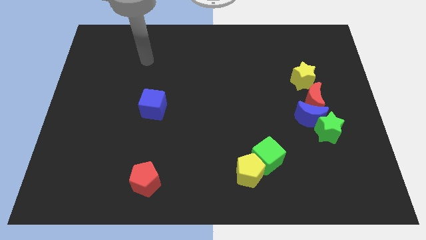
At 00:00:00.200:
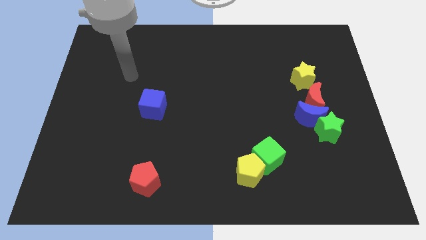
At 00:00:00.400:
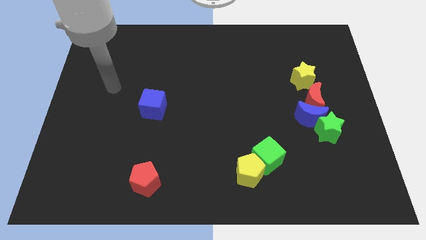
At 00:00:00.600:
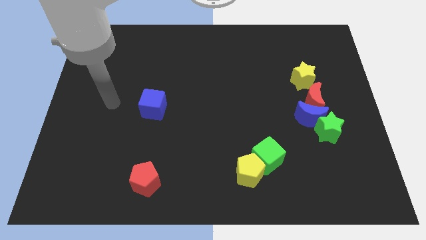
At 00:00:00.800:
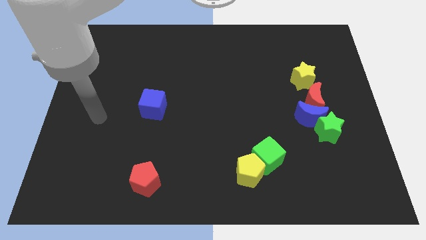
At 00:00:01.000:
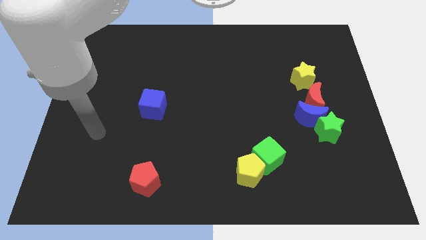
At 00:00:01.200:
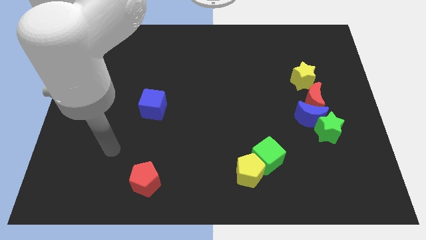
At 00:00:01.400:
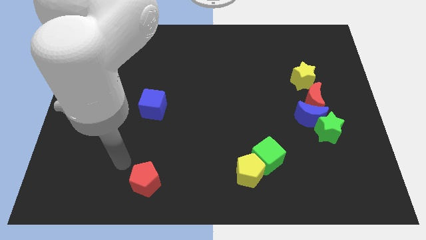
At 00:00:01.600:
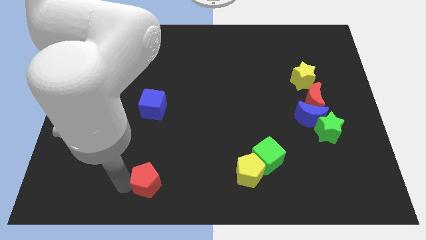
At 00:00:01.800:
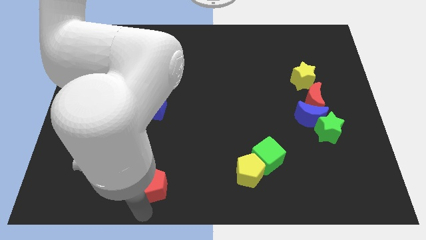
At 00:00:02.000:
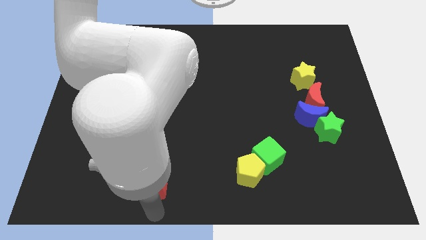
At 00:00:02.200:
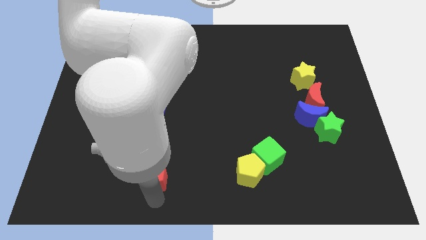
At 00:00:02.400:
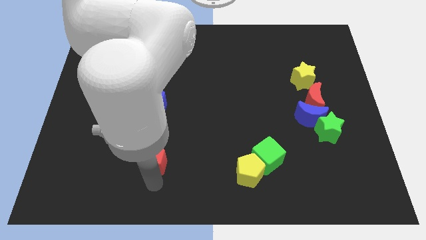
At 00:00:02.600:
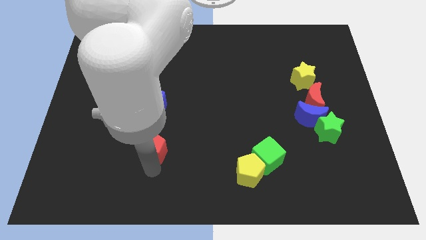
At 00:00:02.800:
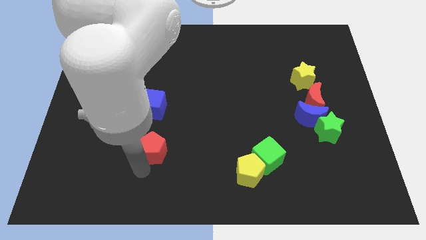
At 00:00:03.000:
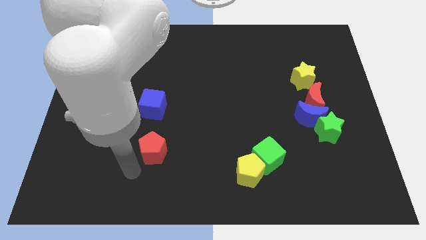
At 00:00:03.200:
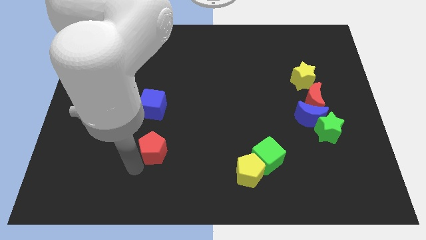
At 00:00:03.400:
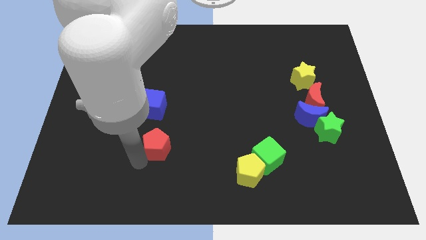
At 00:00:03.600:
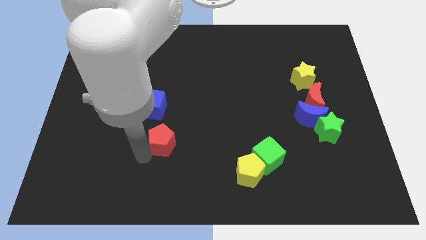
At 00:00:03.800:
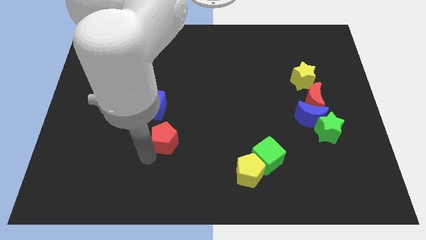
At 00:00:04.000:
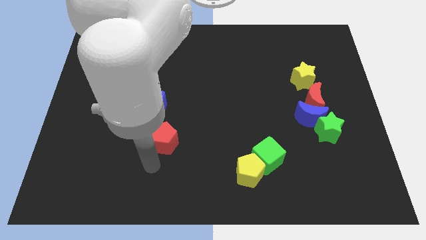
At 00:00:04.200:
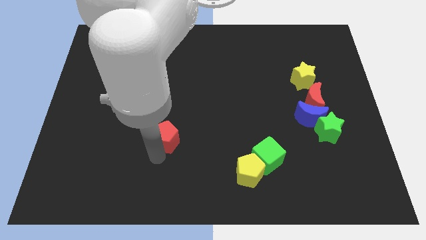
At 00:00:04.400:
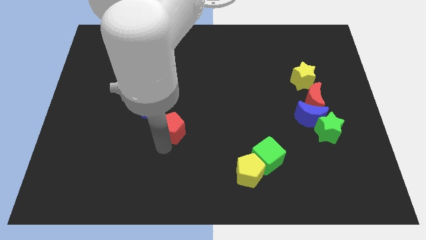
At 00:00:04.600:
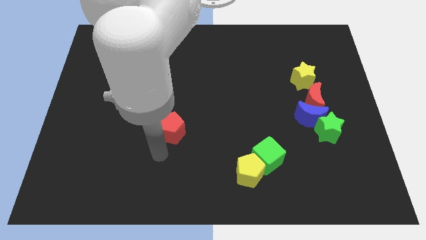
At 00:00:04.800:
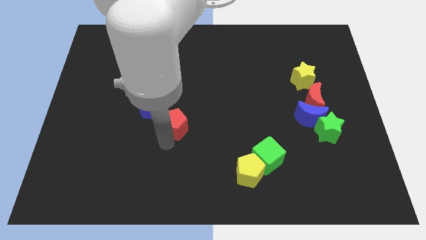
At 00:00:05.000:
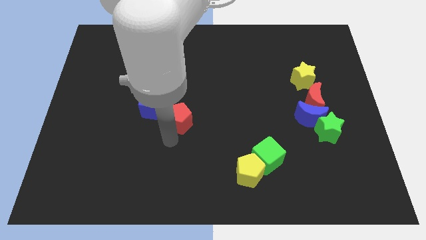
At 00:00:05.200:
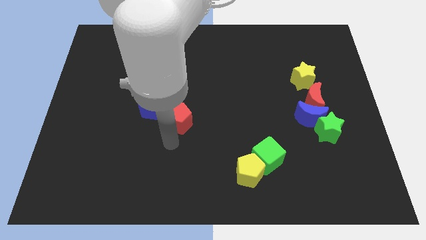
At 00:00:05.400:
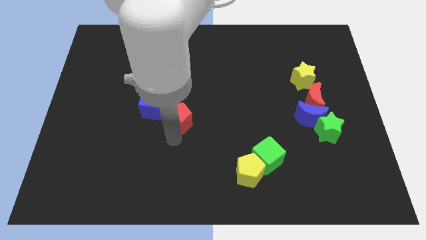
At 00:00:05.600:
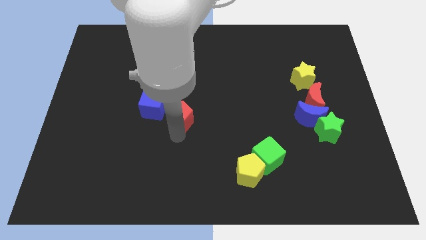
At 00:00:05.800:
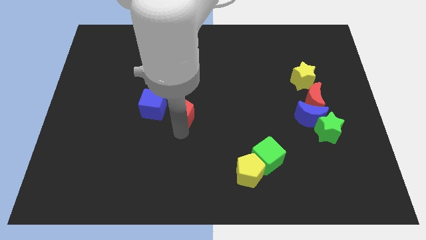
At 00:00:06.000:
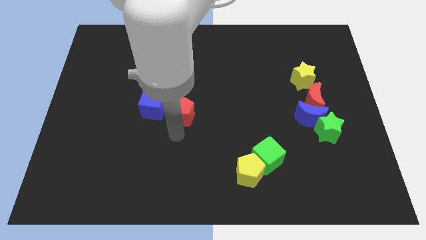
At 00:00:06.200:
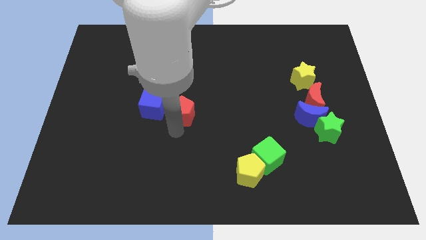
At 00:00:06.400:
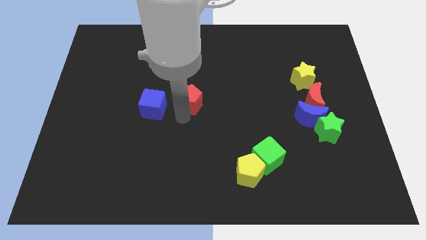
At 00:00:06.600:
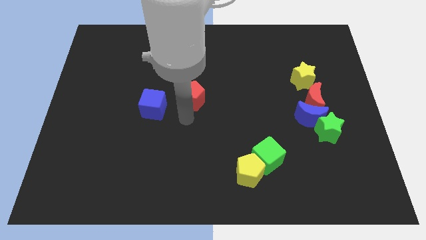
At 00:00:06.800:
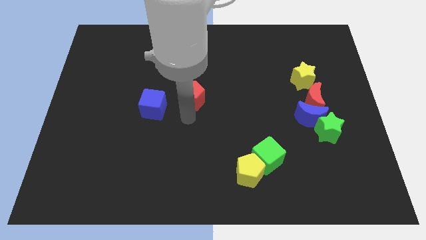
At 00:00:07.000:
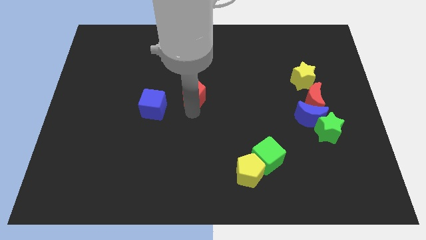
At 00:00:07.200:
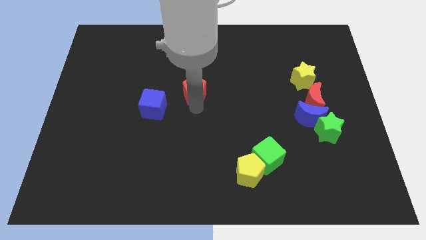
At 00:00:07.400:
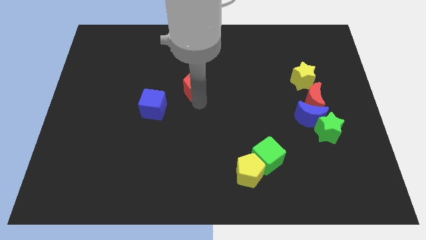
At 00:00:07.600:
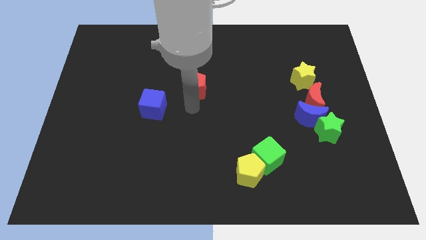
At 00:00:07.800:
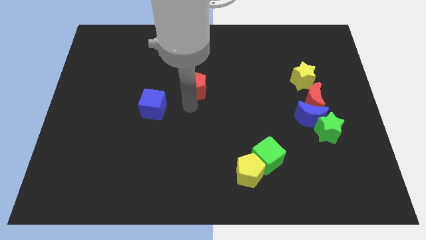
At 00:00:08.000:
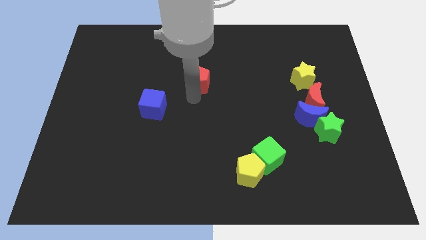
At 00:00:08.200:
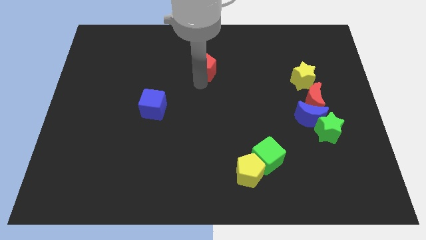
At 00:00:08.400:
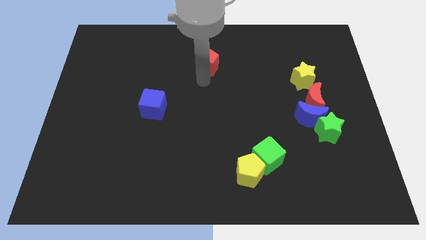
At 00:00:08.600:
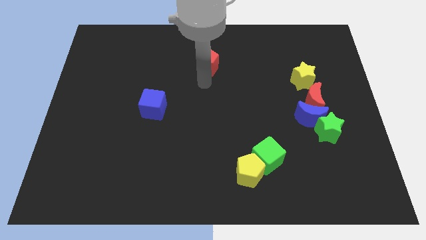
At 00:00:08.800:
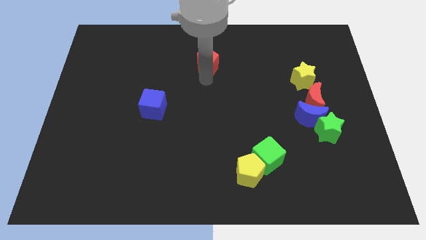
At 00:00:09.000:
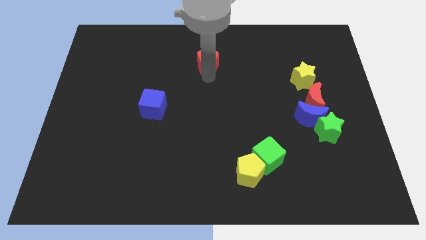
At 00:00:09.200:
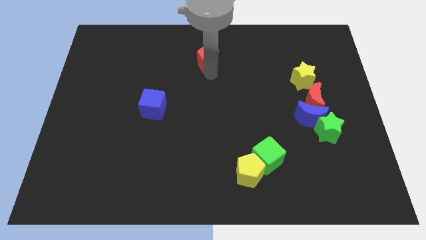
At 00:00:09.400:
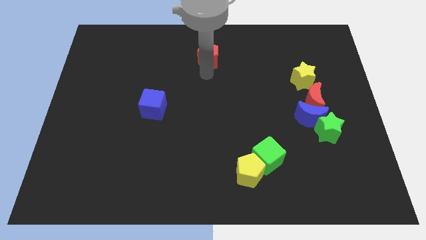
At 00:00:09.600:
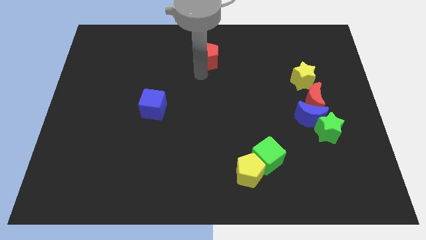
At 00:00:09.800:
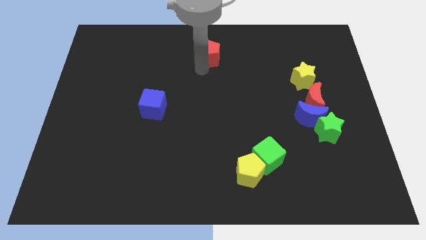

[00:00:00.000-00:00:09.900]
push the red pentagon to the towards your base

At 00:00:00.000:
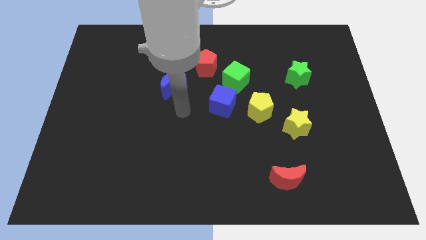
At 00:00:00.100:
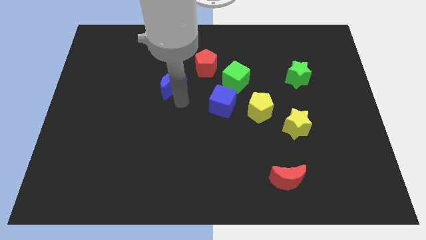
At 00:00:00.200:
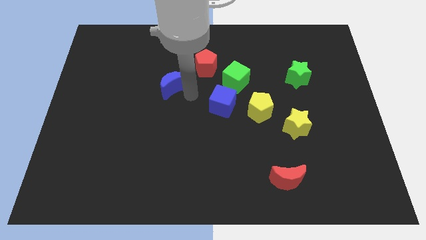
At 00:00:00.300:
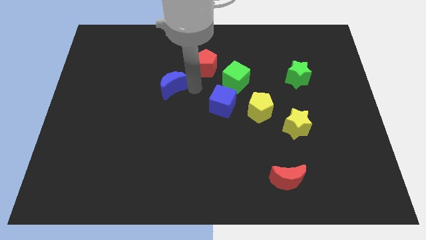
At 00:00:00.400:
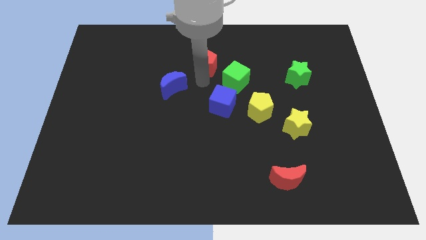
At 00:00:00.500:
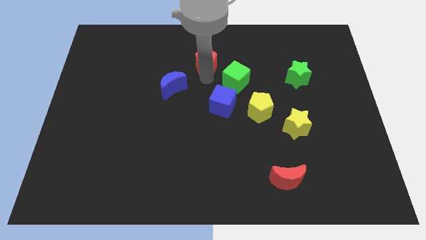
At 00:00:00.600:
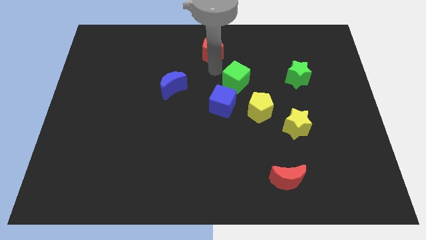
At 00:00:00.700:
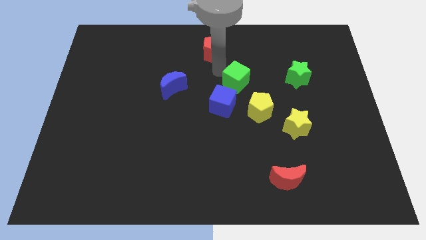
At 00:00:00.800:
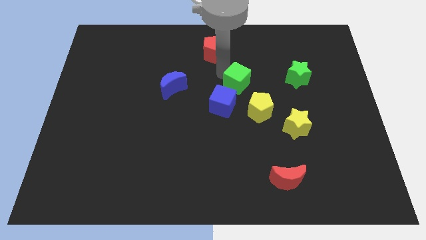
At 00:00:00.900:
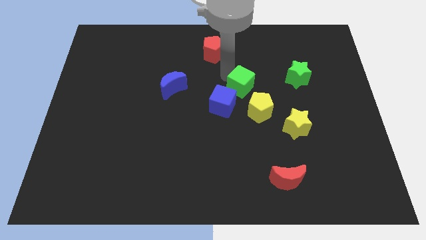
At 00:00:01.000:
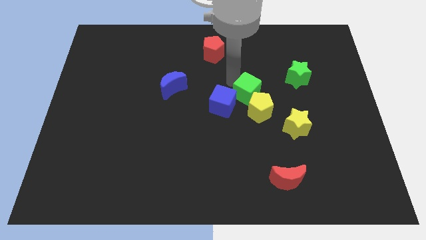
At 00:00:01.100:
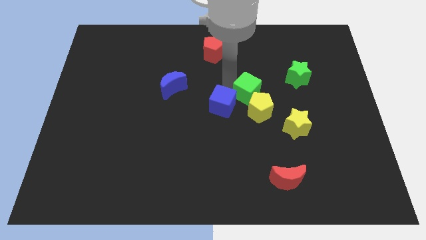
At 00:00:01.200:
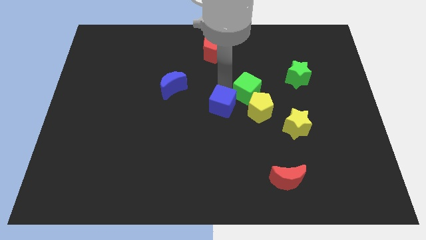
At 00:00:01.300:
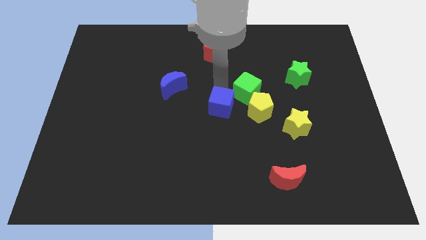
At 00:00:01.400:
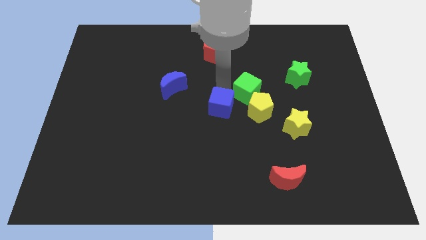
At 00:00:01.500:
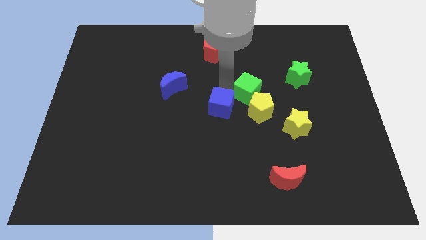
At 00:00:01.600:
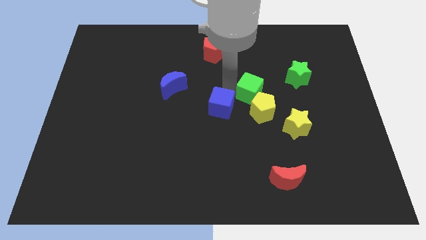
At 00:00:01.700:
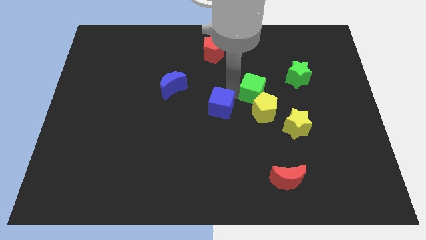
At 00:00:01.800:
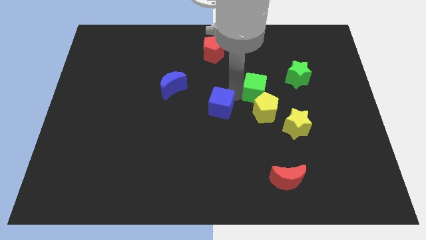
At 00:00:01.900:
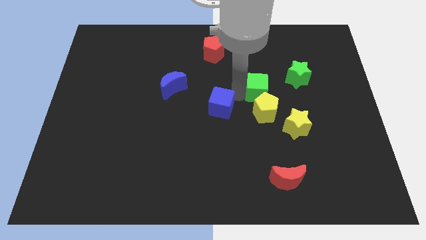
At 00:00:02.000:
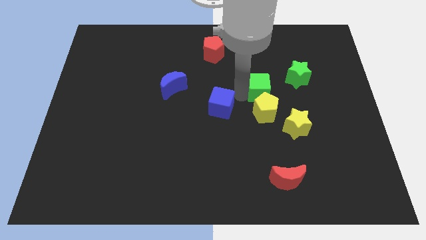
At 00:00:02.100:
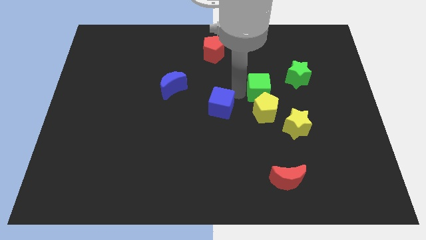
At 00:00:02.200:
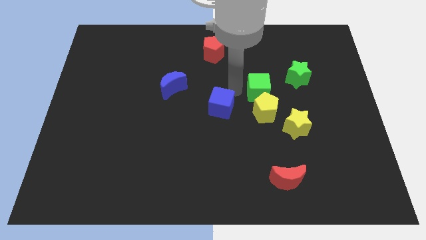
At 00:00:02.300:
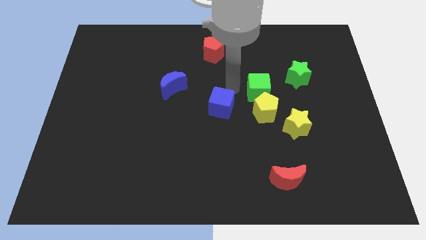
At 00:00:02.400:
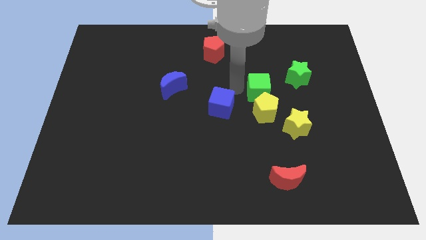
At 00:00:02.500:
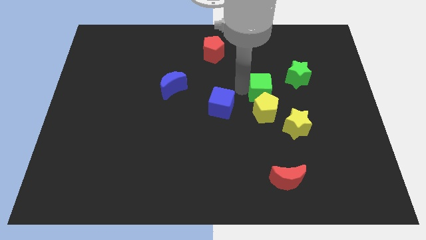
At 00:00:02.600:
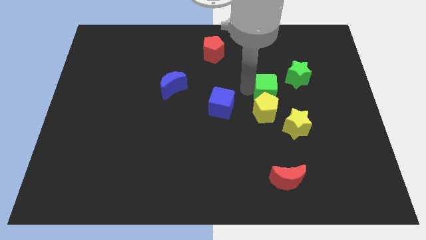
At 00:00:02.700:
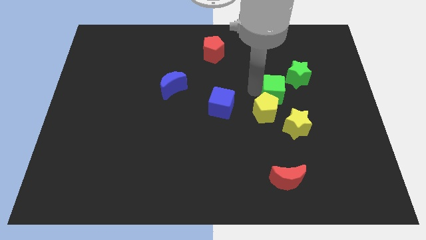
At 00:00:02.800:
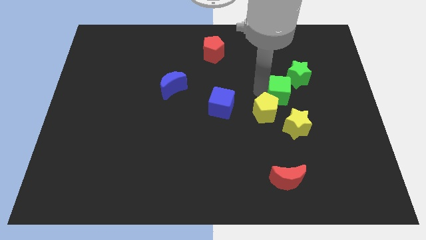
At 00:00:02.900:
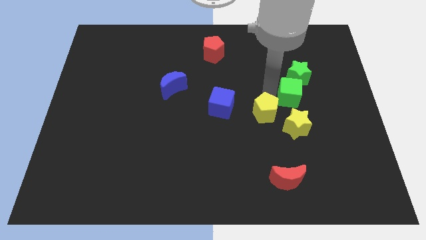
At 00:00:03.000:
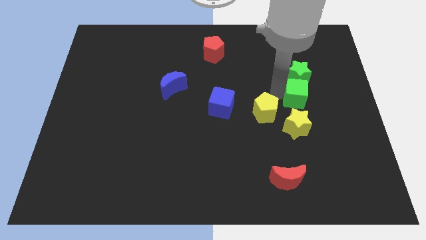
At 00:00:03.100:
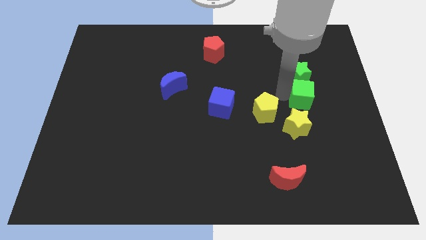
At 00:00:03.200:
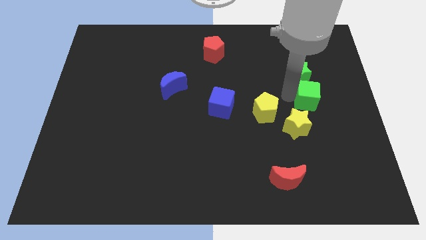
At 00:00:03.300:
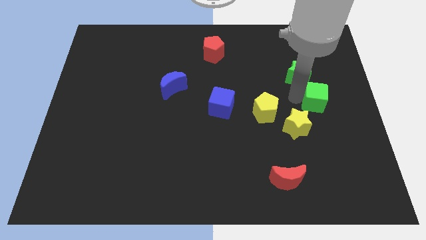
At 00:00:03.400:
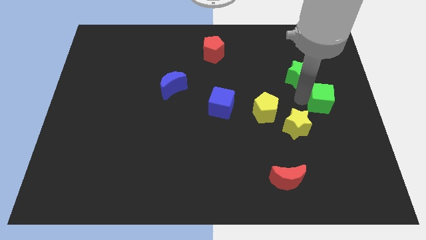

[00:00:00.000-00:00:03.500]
slide the green cube to the right side of the board
